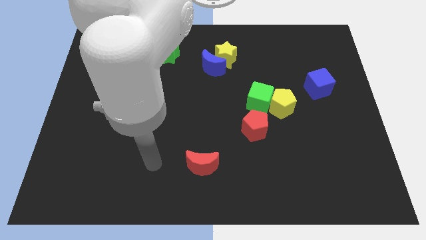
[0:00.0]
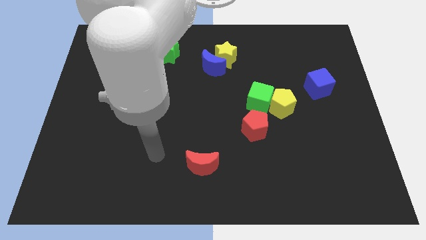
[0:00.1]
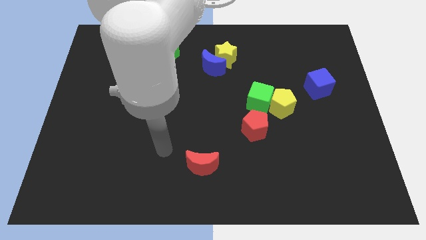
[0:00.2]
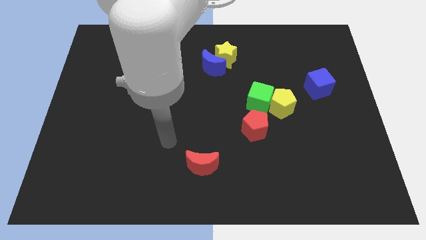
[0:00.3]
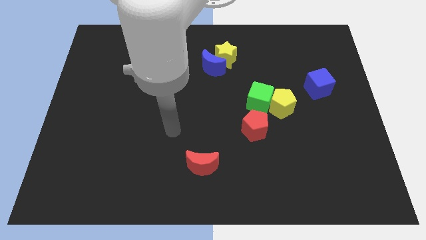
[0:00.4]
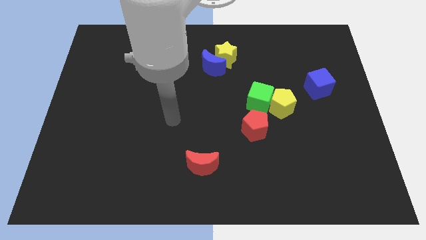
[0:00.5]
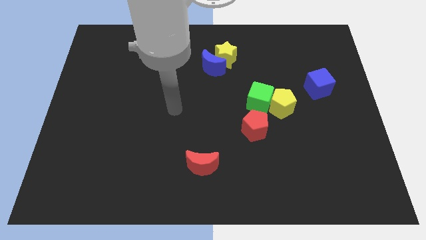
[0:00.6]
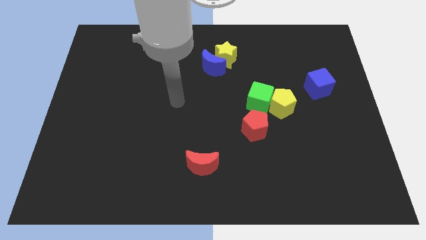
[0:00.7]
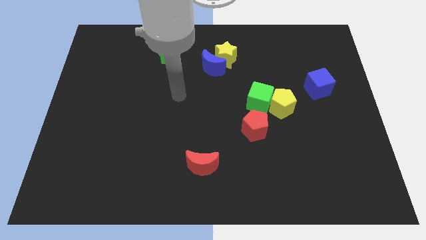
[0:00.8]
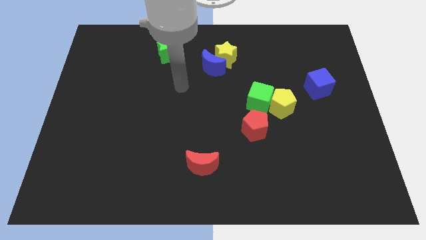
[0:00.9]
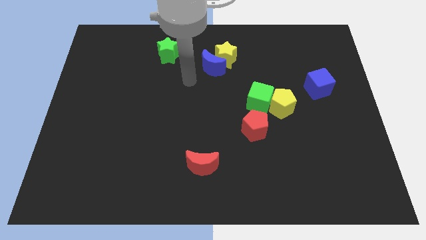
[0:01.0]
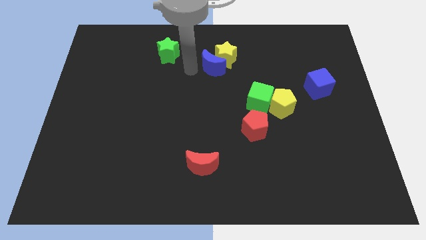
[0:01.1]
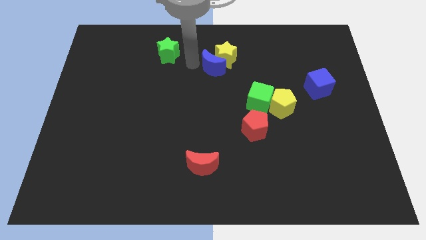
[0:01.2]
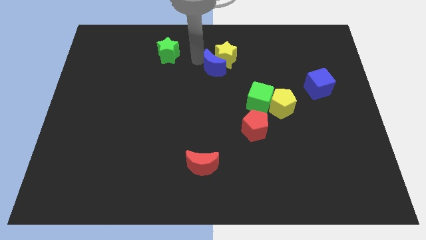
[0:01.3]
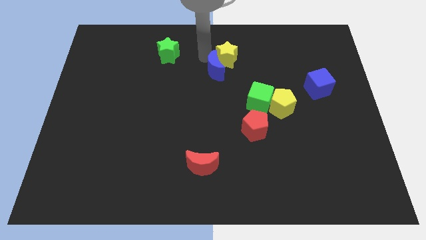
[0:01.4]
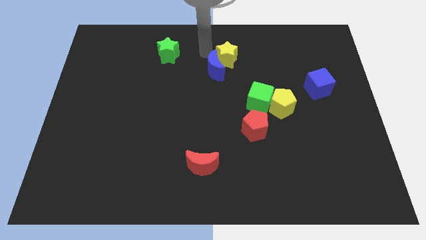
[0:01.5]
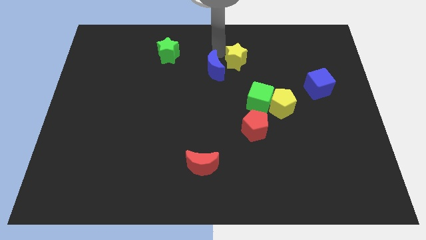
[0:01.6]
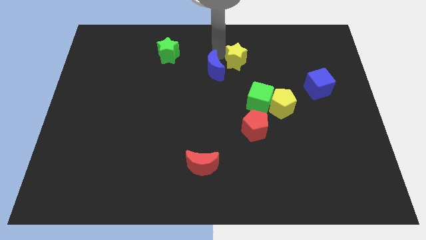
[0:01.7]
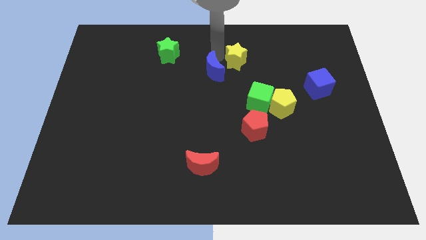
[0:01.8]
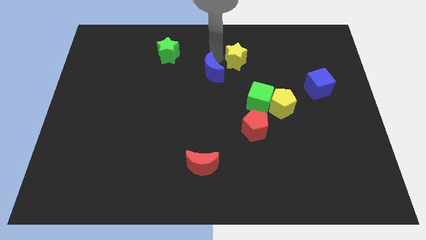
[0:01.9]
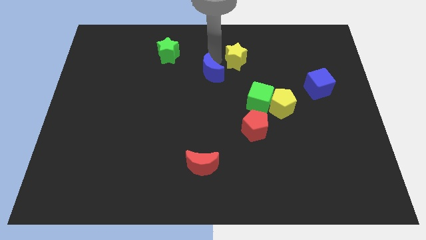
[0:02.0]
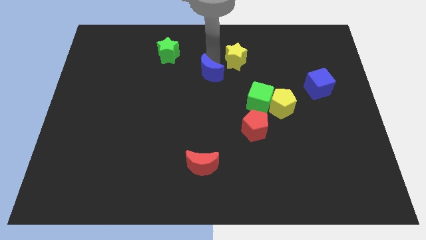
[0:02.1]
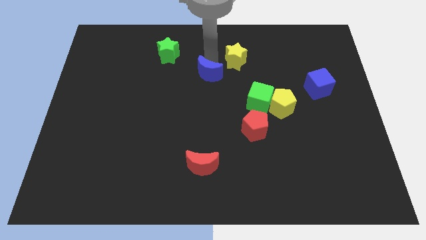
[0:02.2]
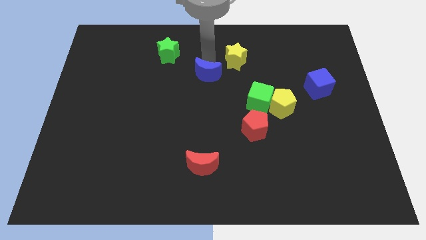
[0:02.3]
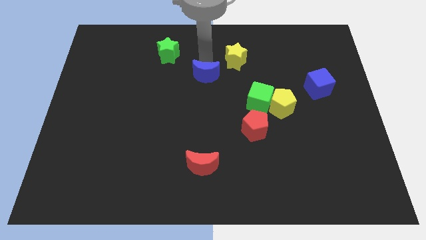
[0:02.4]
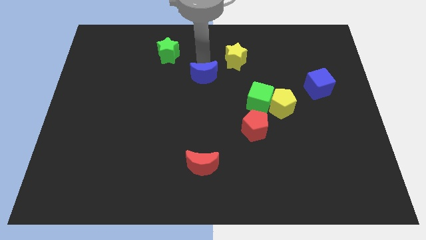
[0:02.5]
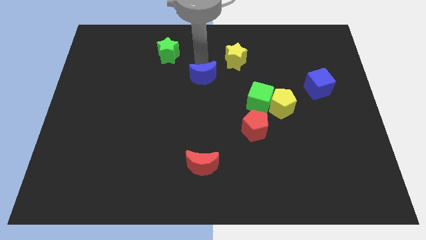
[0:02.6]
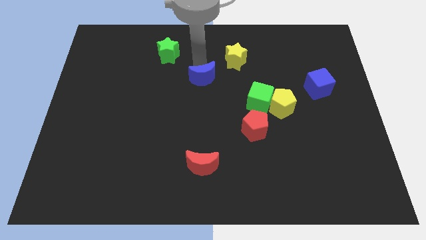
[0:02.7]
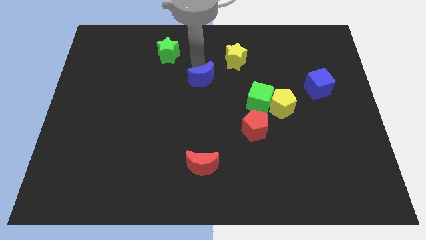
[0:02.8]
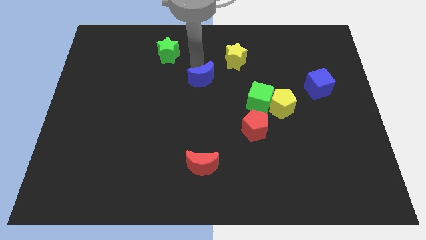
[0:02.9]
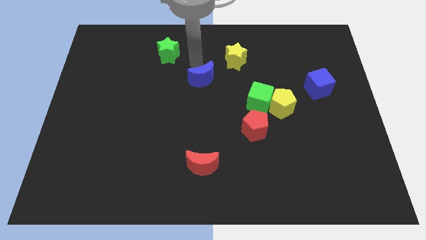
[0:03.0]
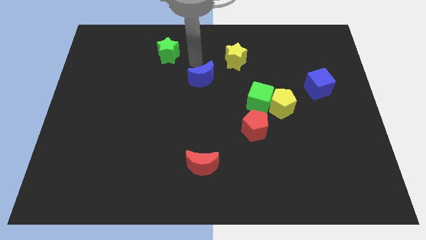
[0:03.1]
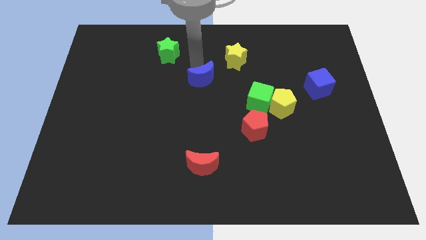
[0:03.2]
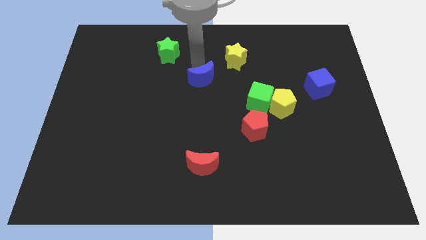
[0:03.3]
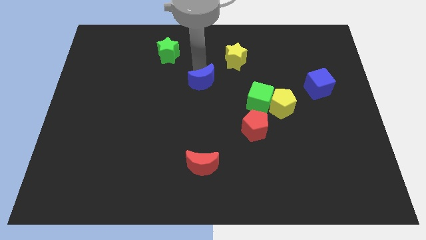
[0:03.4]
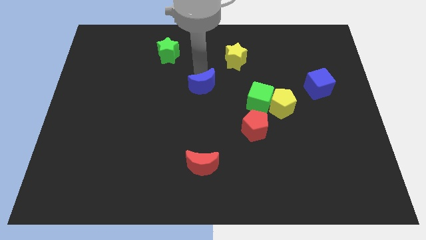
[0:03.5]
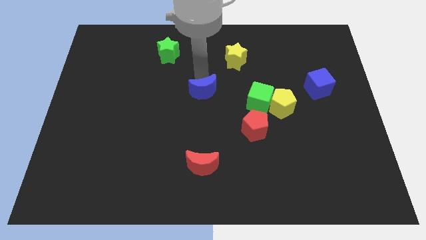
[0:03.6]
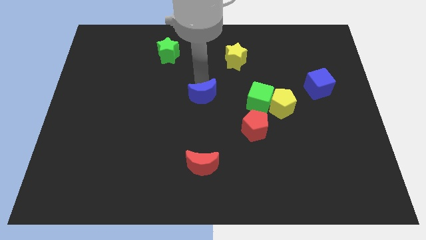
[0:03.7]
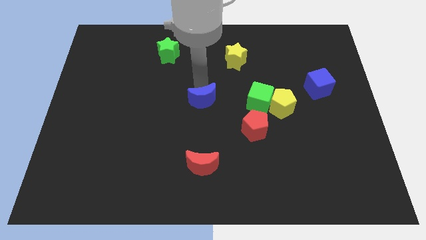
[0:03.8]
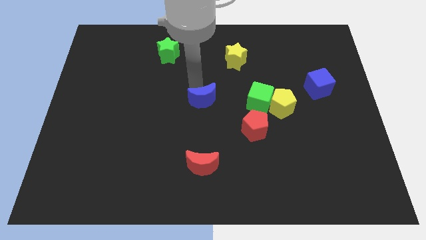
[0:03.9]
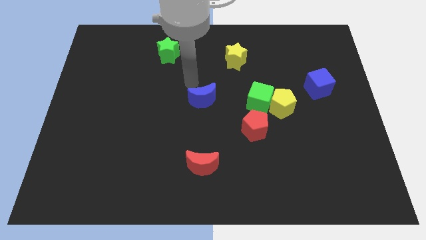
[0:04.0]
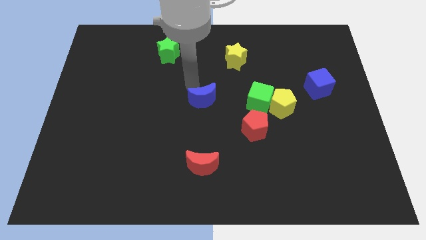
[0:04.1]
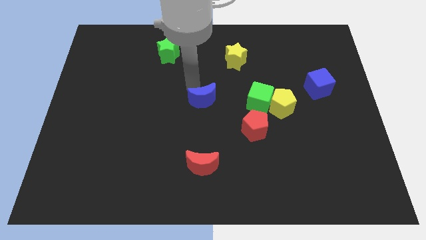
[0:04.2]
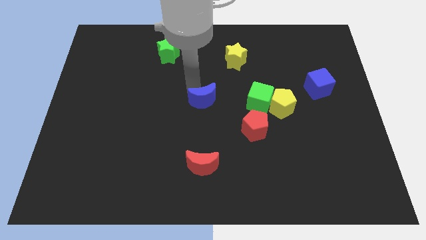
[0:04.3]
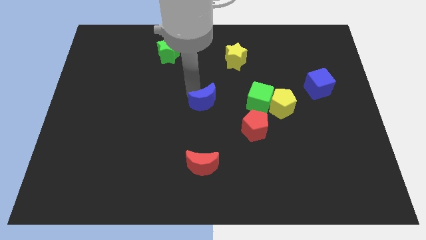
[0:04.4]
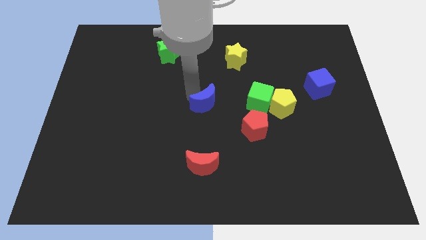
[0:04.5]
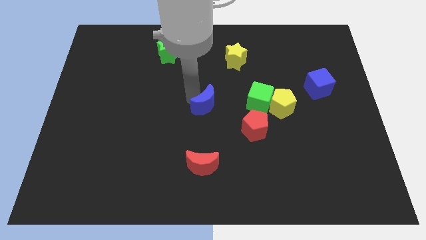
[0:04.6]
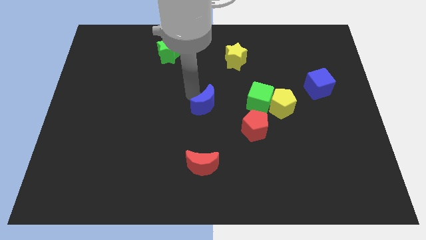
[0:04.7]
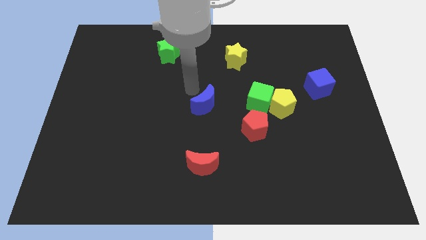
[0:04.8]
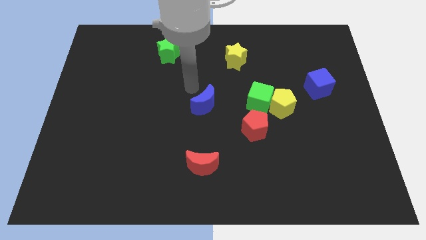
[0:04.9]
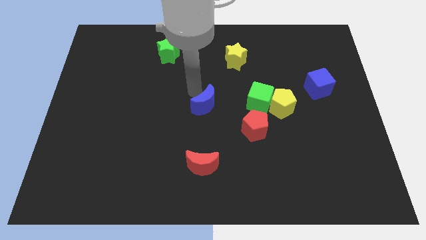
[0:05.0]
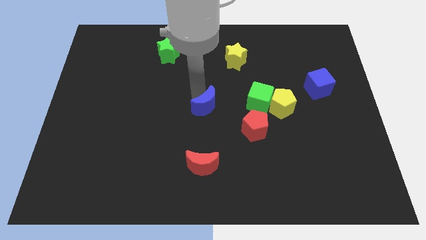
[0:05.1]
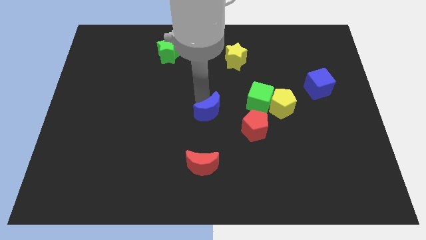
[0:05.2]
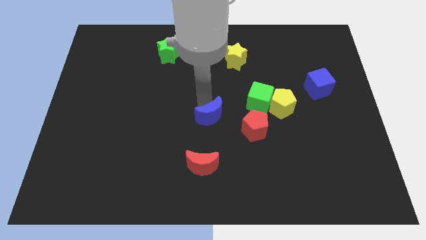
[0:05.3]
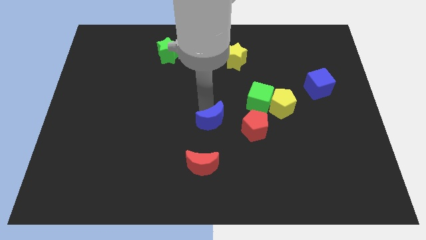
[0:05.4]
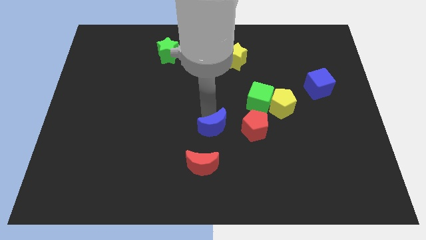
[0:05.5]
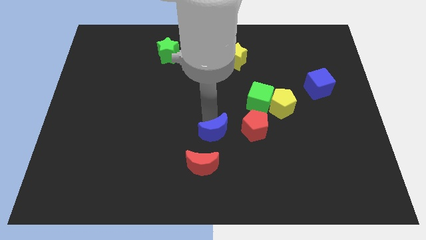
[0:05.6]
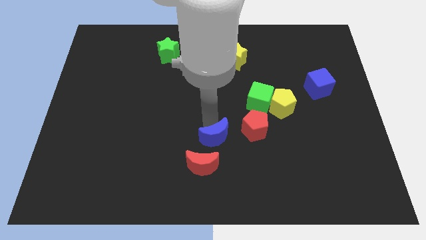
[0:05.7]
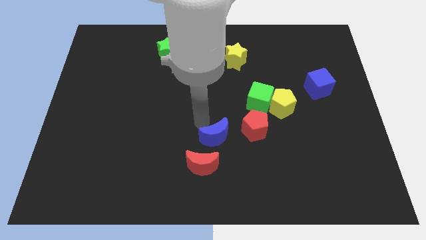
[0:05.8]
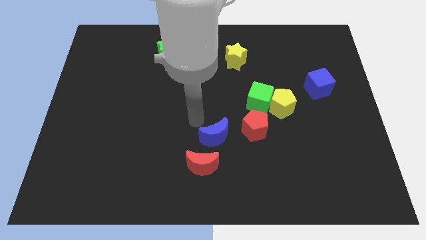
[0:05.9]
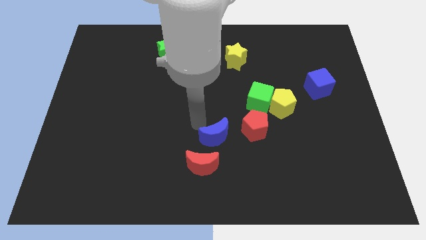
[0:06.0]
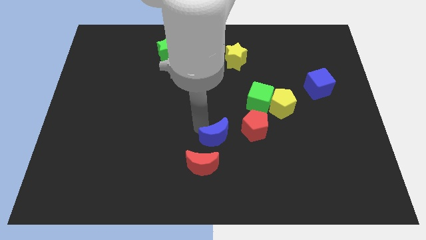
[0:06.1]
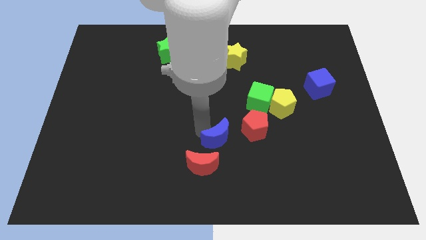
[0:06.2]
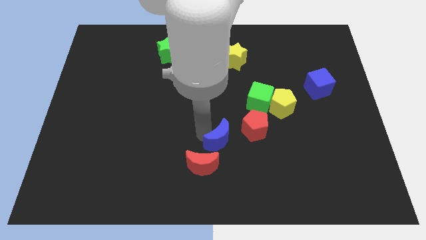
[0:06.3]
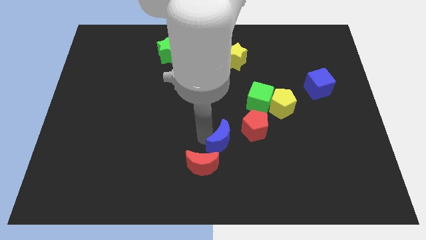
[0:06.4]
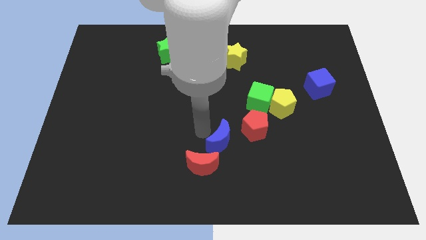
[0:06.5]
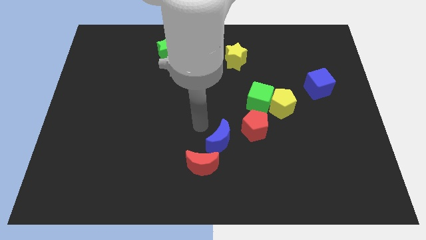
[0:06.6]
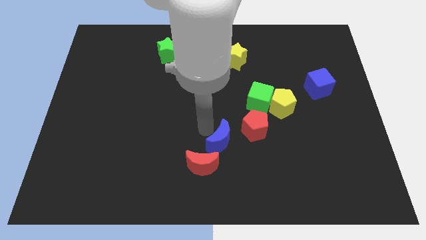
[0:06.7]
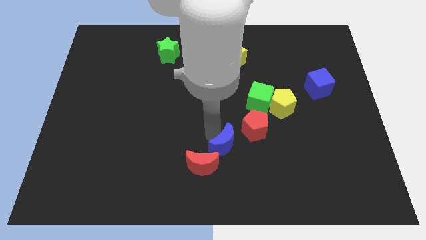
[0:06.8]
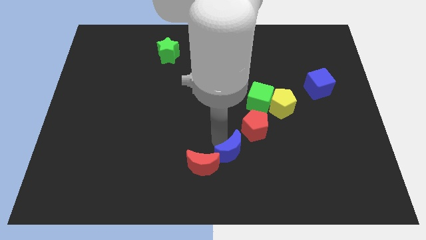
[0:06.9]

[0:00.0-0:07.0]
put the blue moon to the right of the red moon
